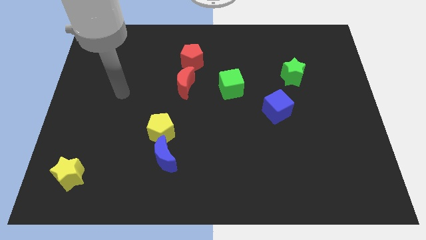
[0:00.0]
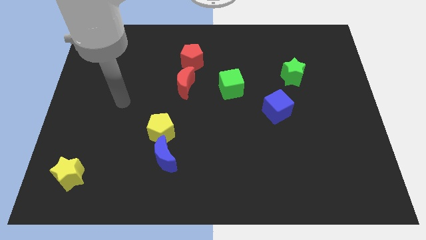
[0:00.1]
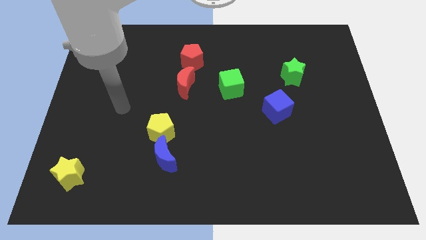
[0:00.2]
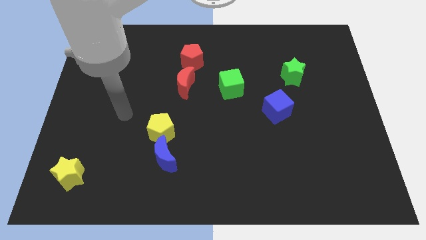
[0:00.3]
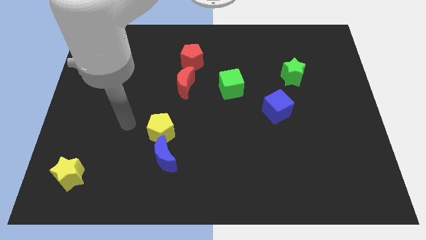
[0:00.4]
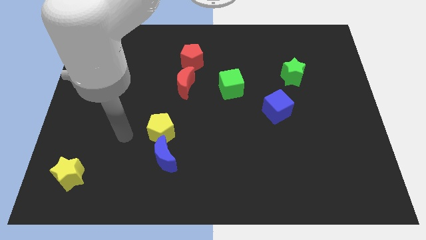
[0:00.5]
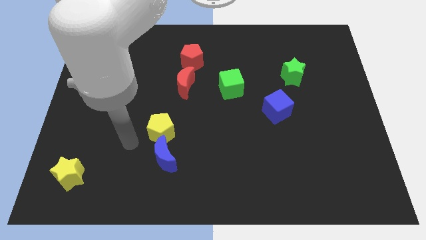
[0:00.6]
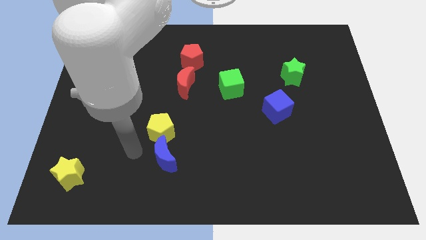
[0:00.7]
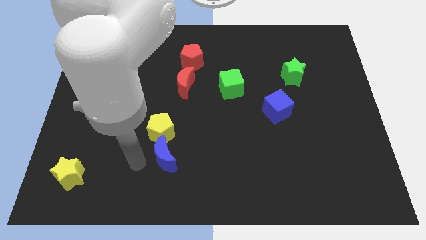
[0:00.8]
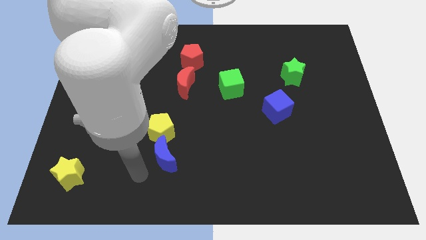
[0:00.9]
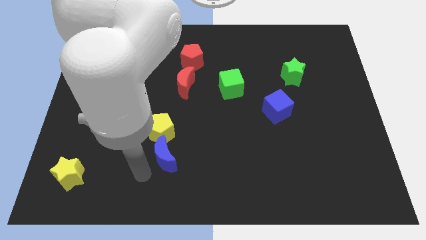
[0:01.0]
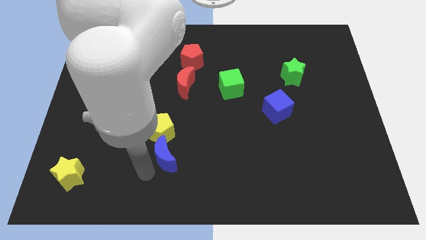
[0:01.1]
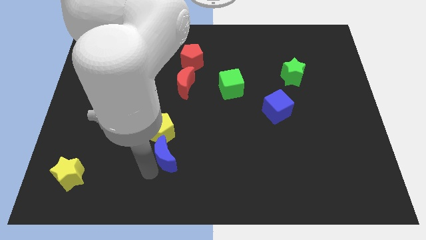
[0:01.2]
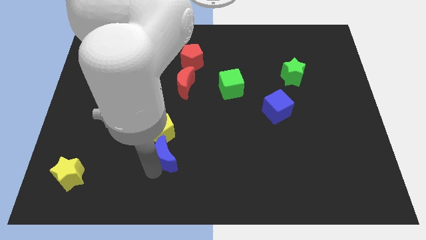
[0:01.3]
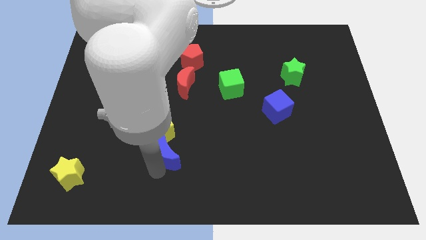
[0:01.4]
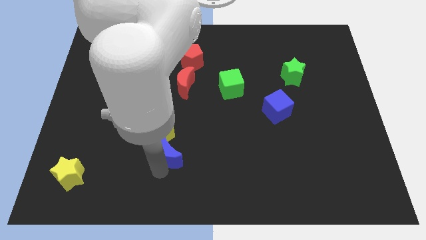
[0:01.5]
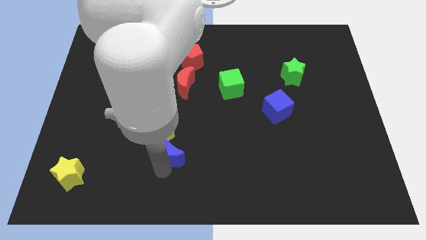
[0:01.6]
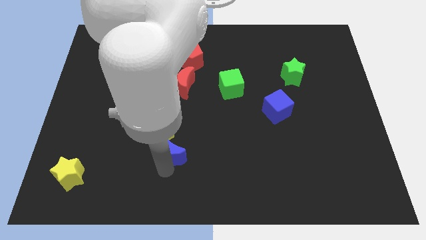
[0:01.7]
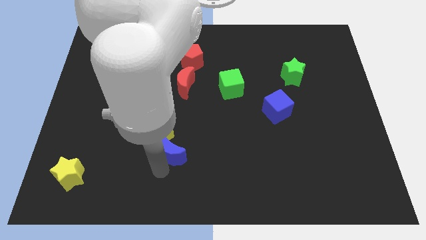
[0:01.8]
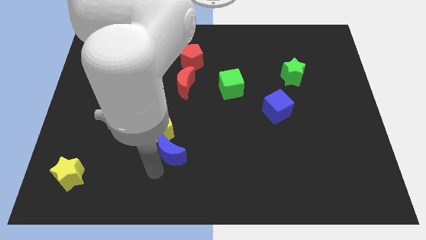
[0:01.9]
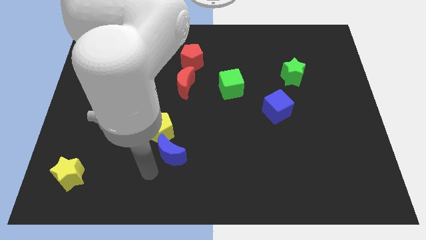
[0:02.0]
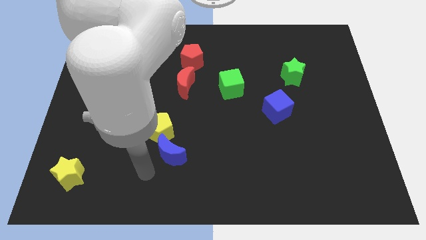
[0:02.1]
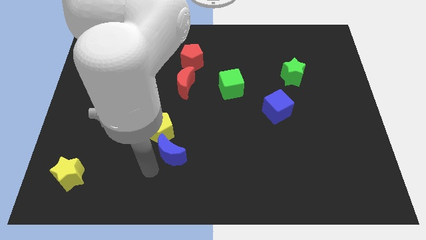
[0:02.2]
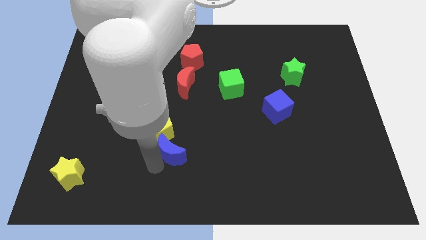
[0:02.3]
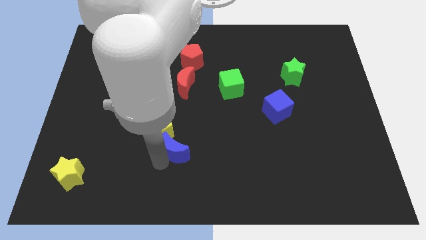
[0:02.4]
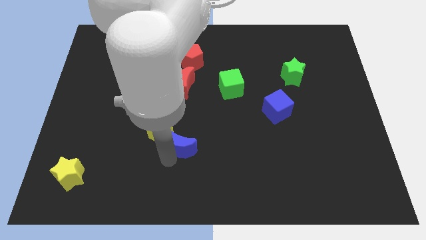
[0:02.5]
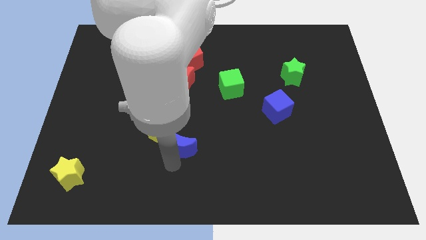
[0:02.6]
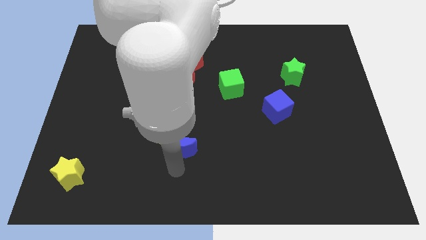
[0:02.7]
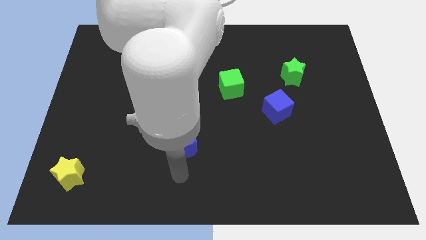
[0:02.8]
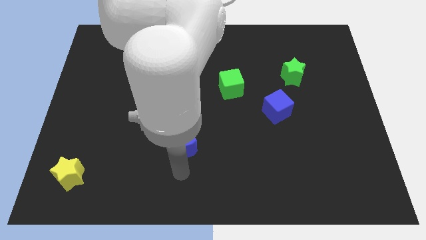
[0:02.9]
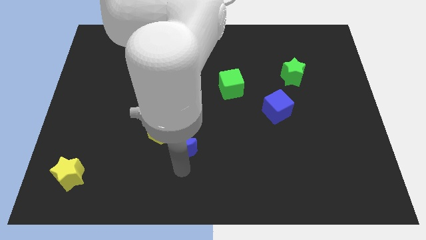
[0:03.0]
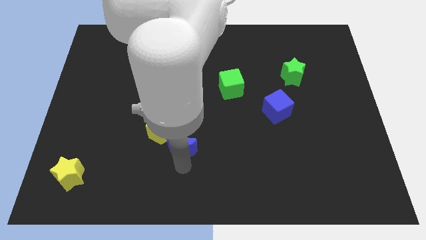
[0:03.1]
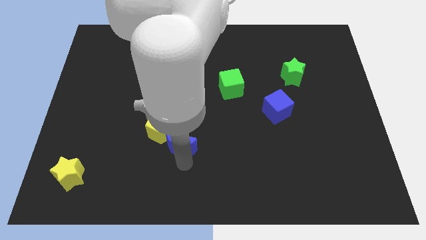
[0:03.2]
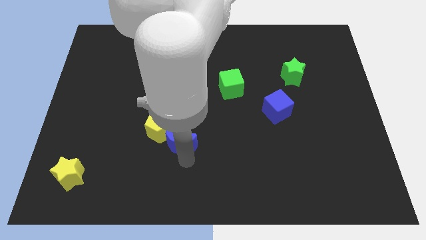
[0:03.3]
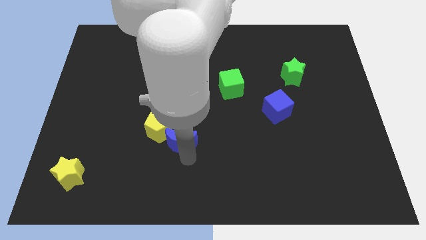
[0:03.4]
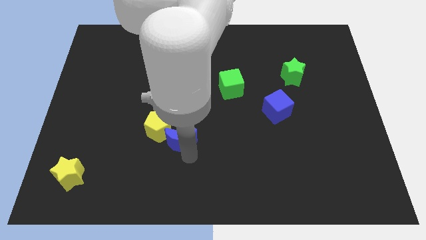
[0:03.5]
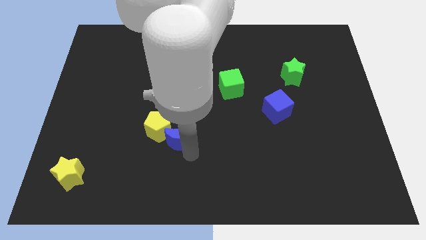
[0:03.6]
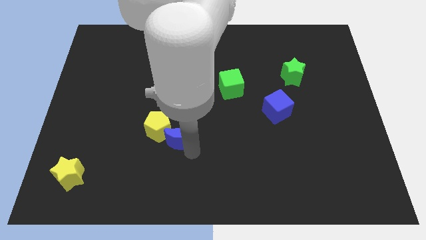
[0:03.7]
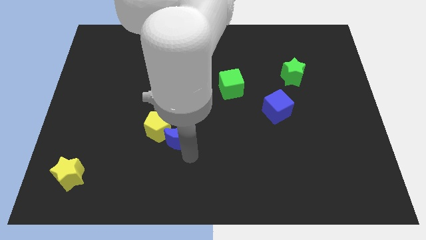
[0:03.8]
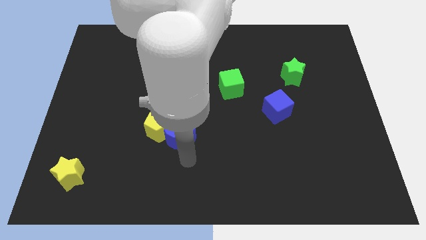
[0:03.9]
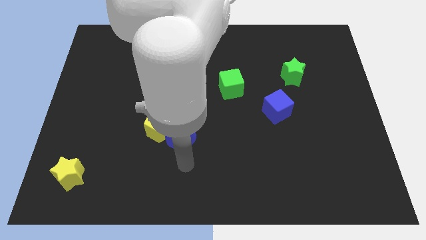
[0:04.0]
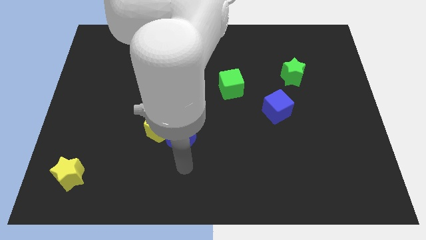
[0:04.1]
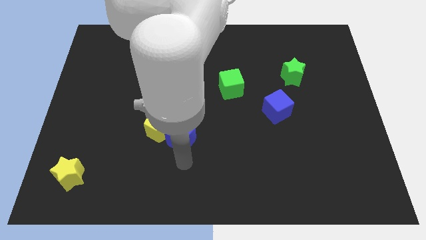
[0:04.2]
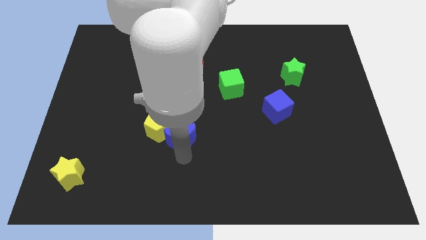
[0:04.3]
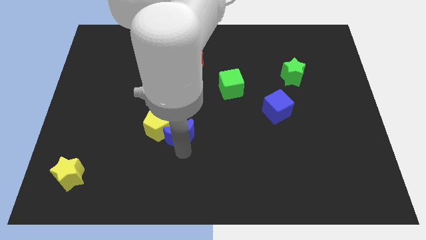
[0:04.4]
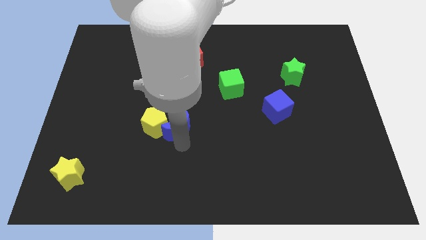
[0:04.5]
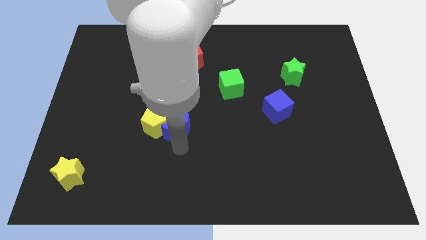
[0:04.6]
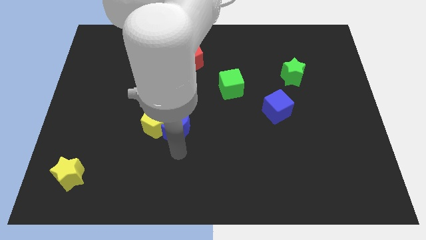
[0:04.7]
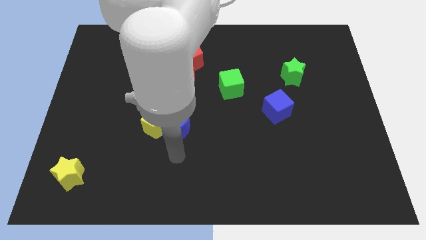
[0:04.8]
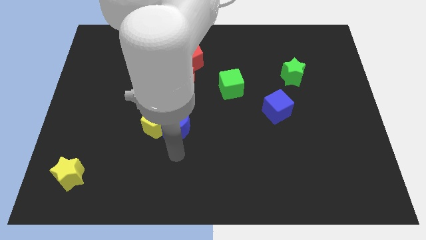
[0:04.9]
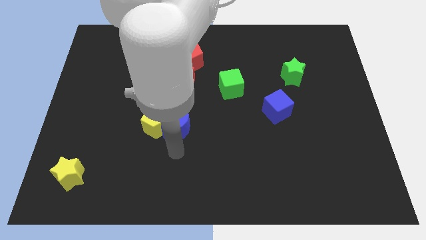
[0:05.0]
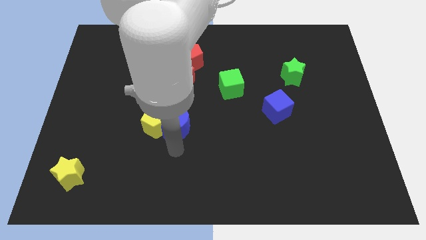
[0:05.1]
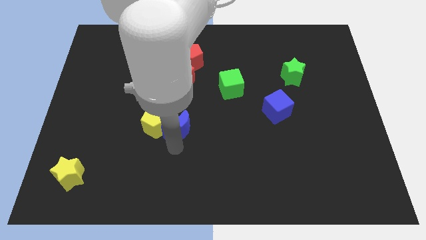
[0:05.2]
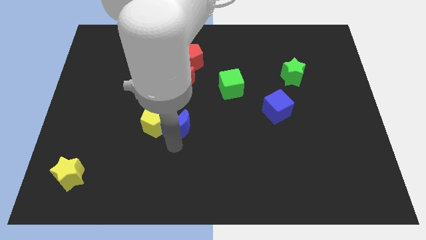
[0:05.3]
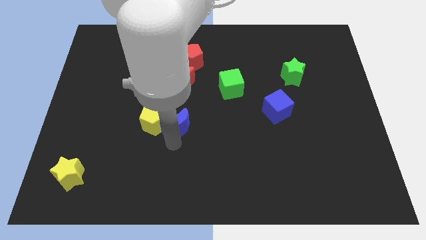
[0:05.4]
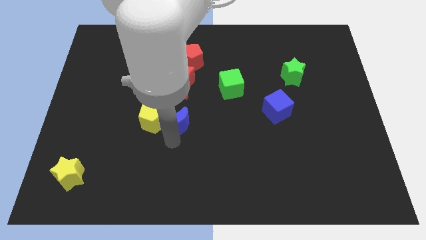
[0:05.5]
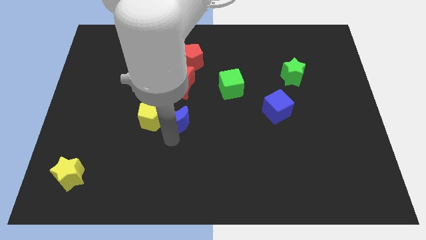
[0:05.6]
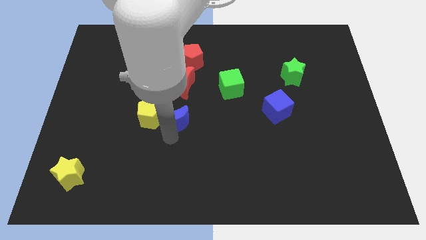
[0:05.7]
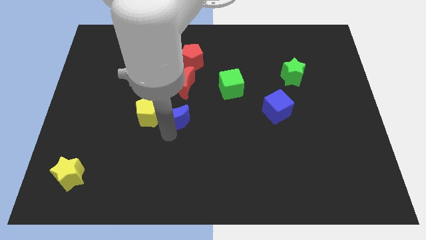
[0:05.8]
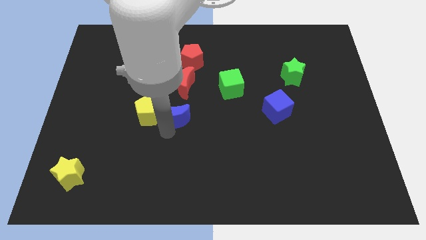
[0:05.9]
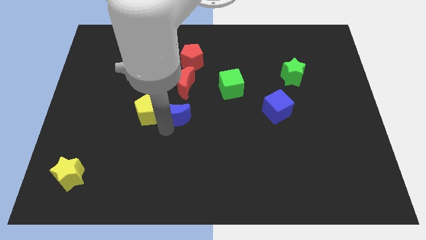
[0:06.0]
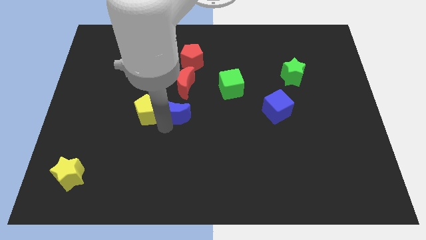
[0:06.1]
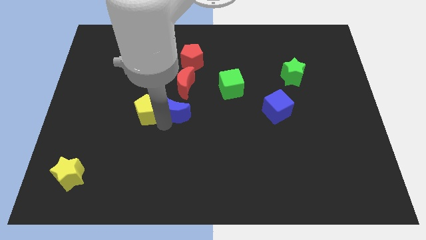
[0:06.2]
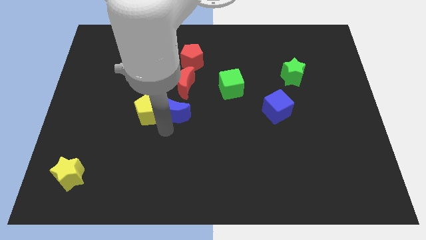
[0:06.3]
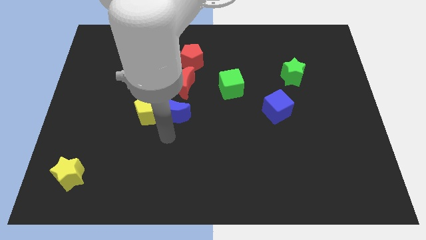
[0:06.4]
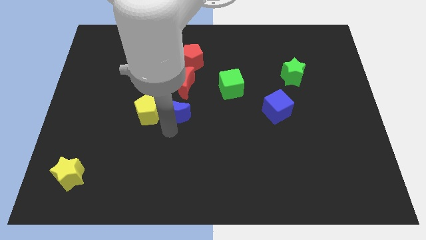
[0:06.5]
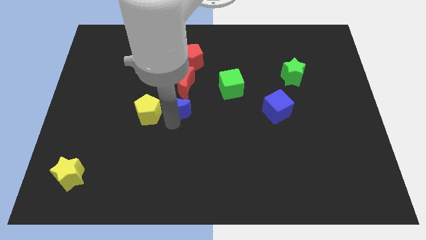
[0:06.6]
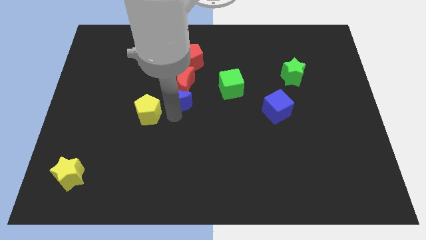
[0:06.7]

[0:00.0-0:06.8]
put the blue moon close to the red moon

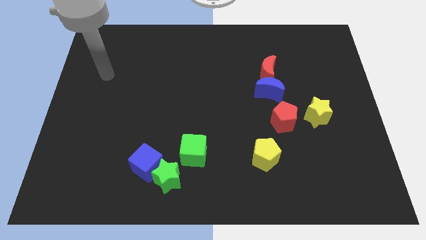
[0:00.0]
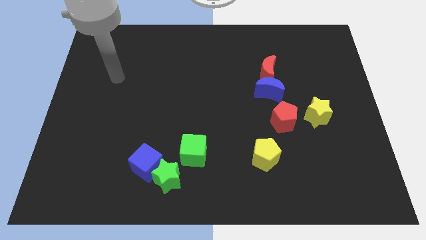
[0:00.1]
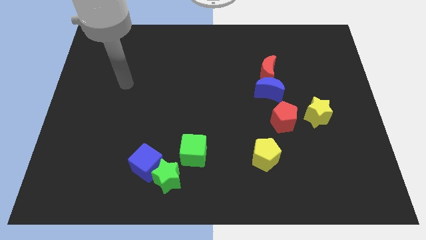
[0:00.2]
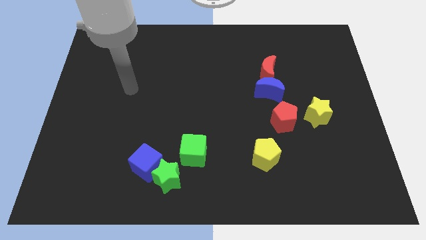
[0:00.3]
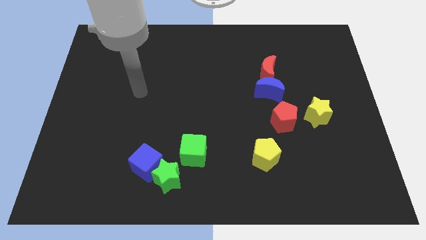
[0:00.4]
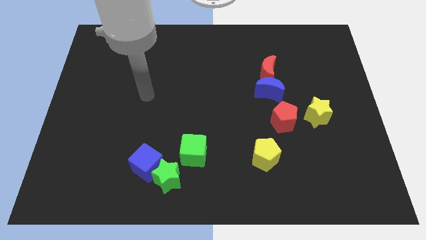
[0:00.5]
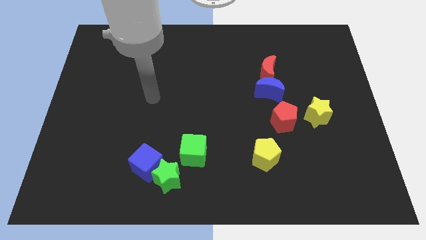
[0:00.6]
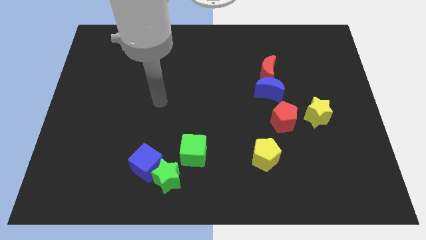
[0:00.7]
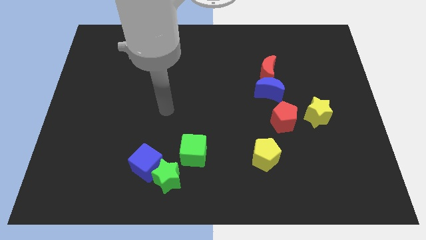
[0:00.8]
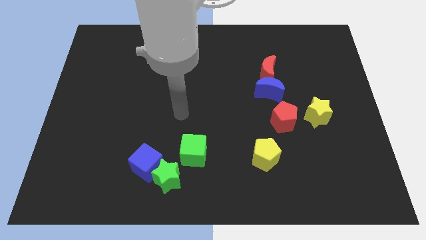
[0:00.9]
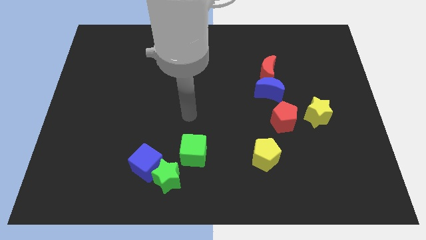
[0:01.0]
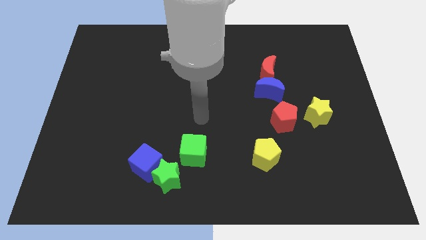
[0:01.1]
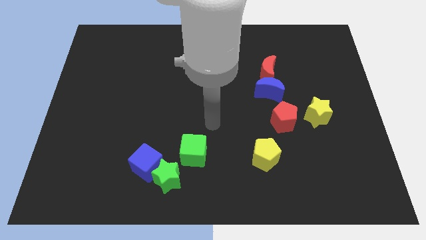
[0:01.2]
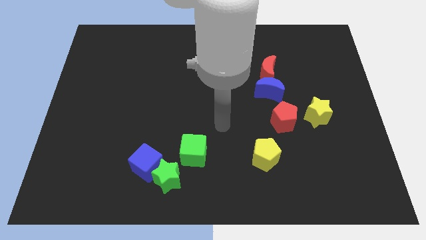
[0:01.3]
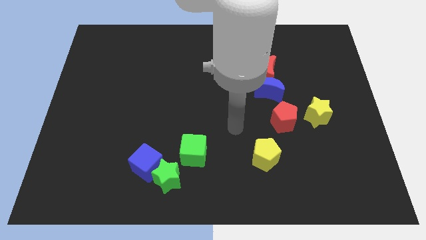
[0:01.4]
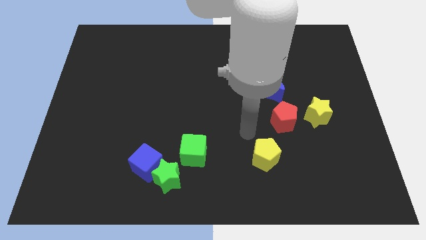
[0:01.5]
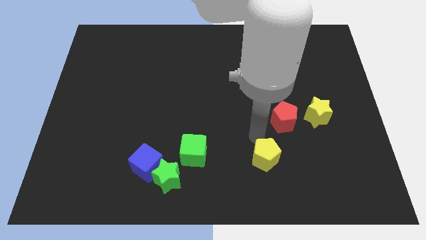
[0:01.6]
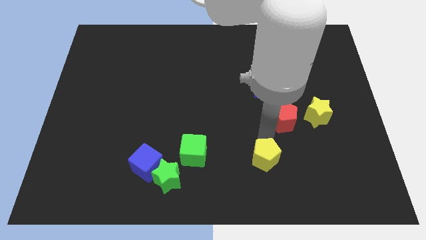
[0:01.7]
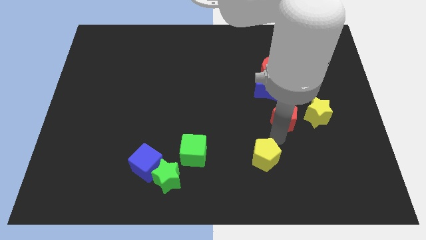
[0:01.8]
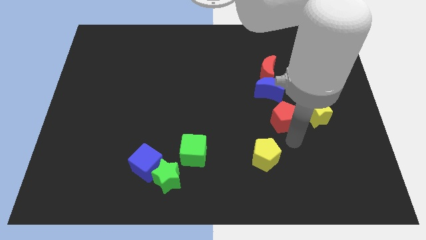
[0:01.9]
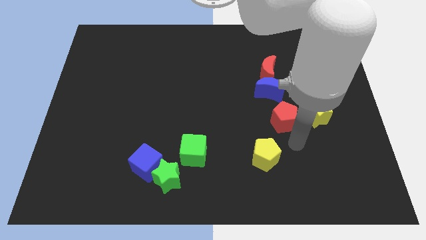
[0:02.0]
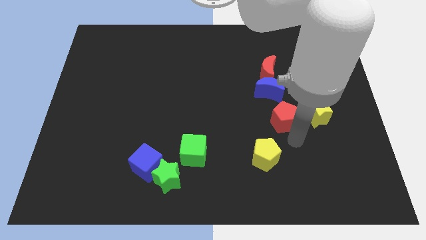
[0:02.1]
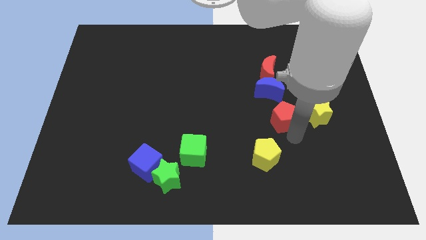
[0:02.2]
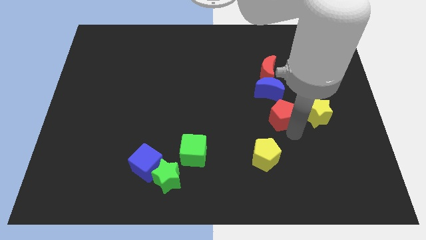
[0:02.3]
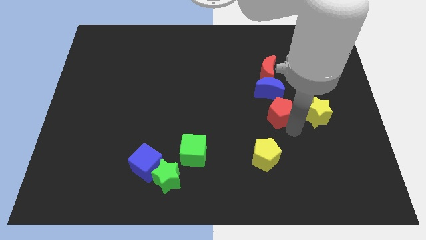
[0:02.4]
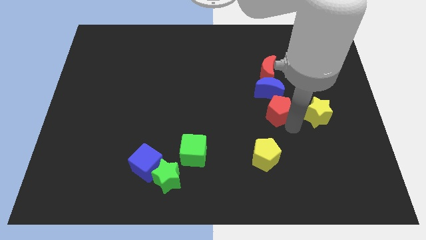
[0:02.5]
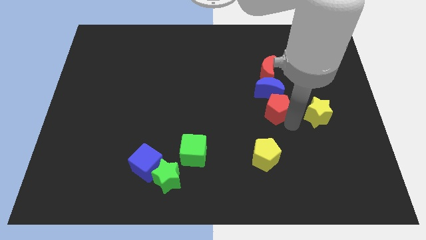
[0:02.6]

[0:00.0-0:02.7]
move the red pentagon towards the blue moon
